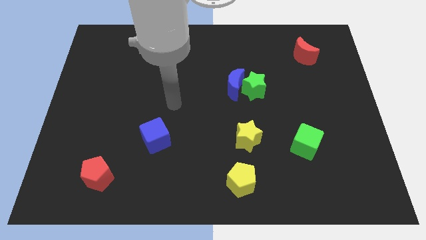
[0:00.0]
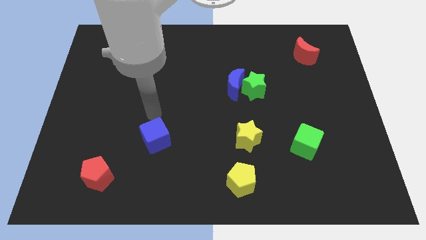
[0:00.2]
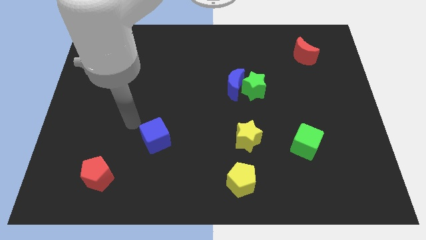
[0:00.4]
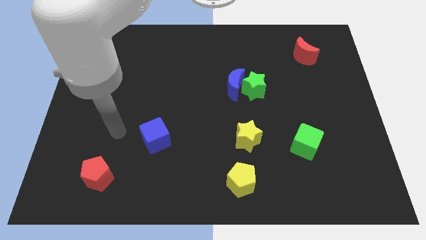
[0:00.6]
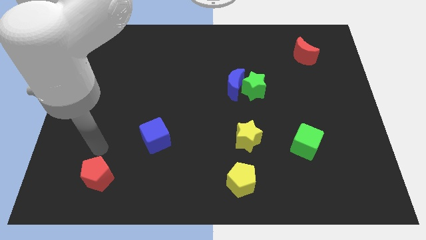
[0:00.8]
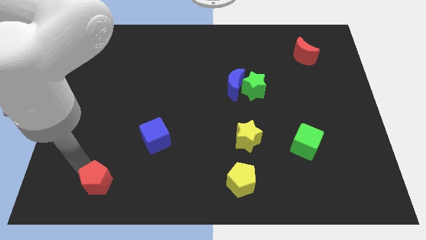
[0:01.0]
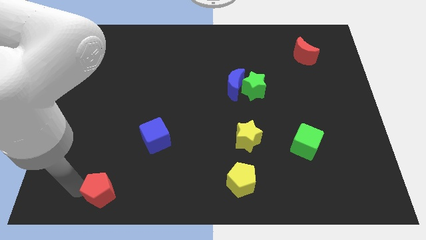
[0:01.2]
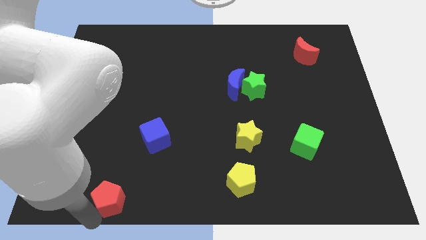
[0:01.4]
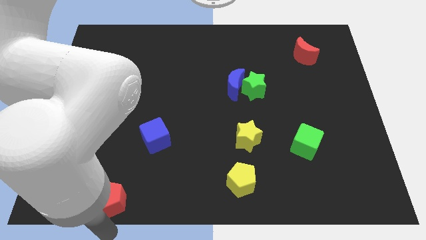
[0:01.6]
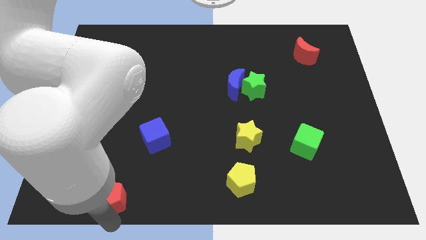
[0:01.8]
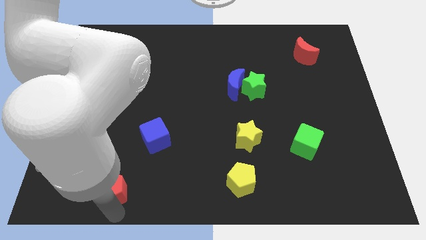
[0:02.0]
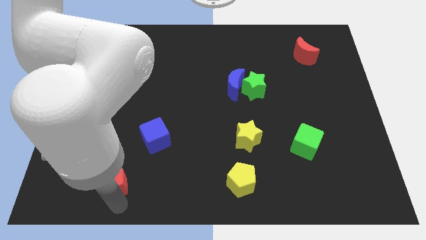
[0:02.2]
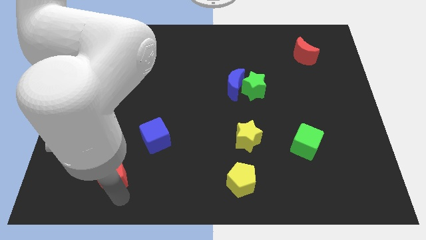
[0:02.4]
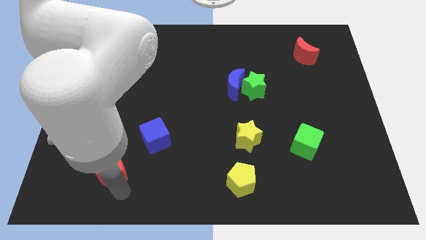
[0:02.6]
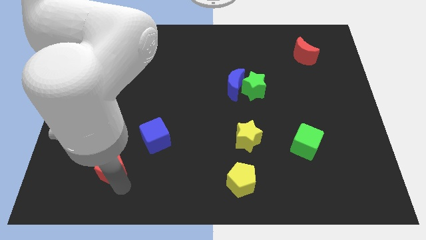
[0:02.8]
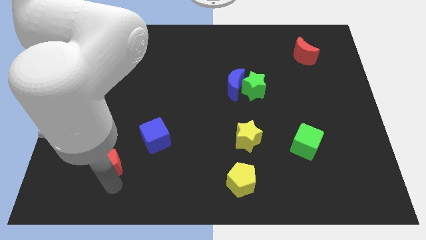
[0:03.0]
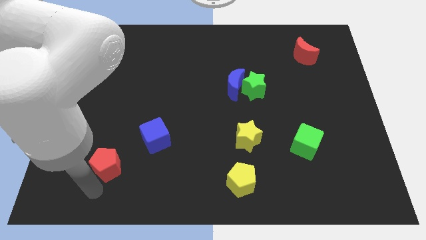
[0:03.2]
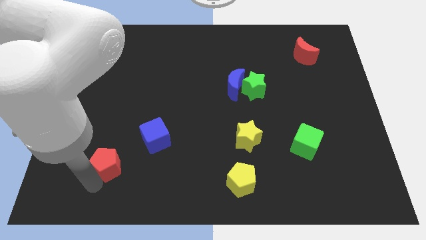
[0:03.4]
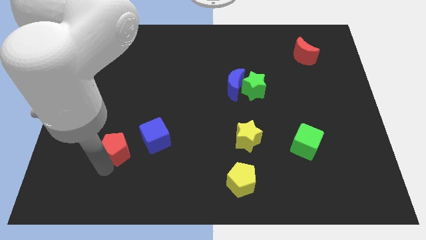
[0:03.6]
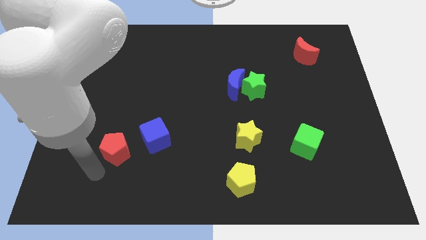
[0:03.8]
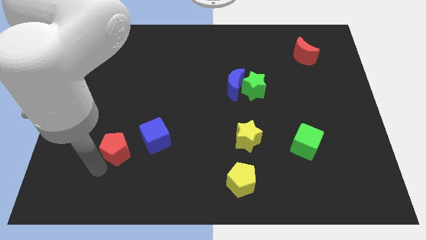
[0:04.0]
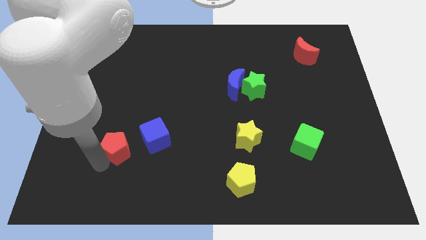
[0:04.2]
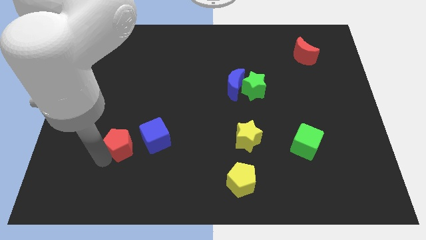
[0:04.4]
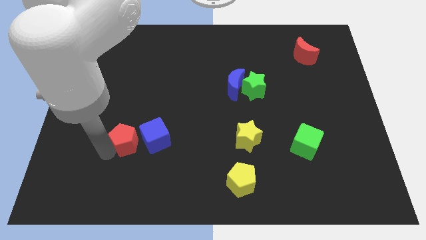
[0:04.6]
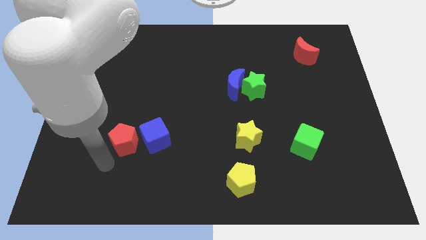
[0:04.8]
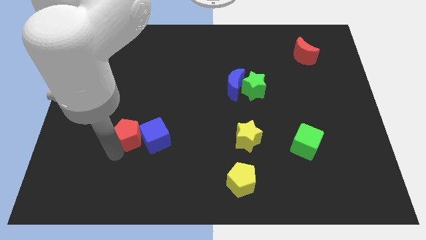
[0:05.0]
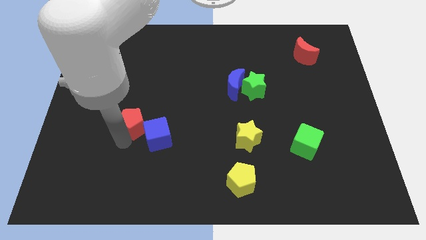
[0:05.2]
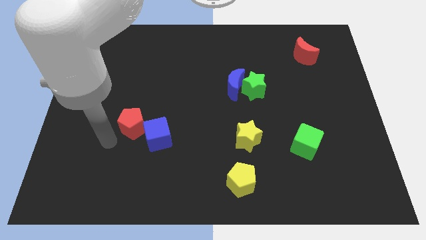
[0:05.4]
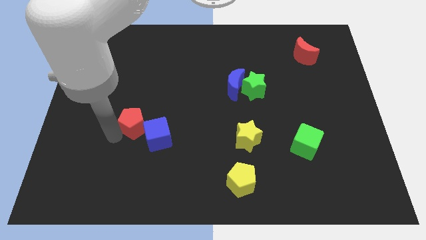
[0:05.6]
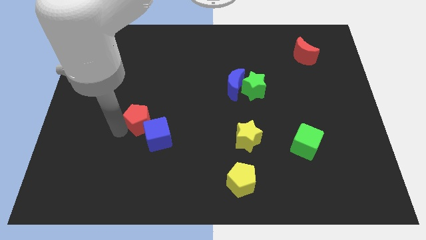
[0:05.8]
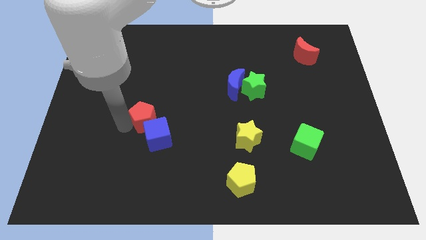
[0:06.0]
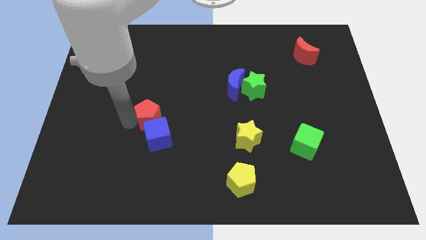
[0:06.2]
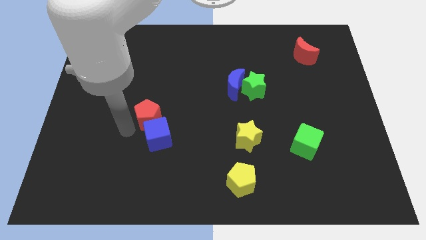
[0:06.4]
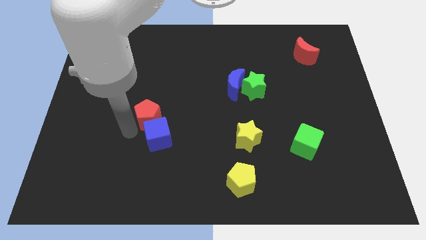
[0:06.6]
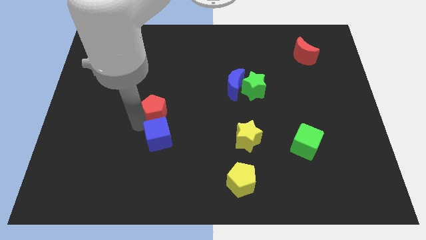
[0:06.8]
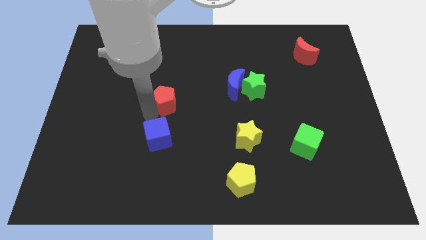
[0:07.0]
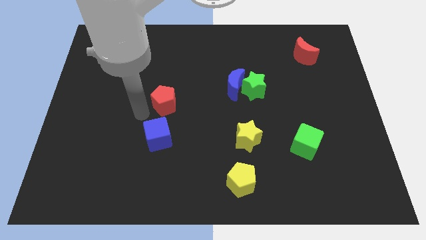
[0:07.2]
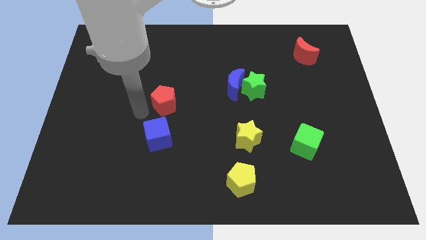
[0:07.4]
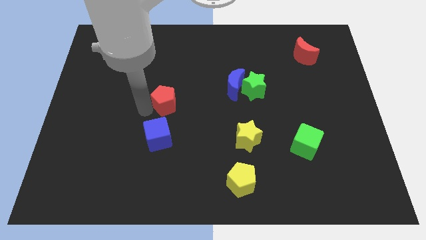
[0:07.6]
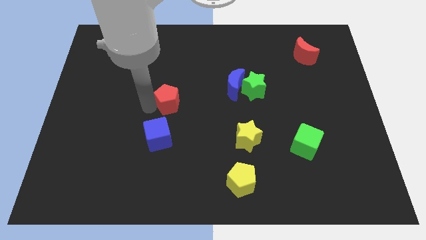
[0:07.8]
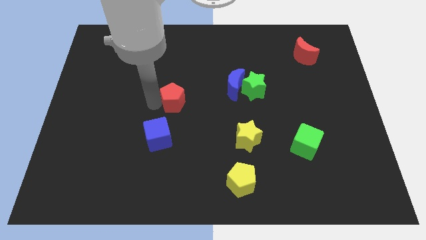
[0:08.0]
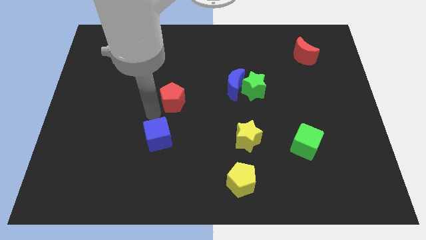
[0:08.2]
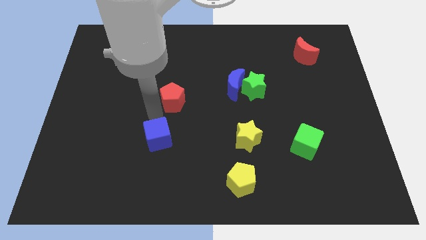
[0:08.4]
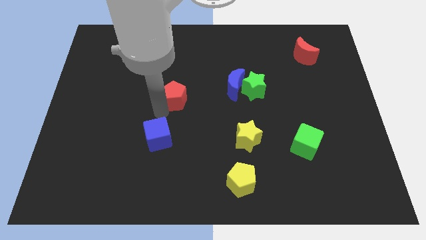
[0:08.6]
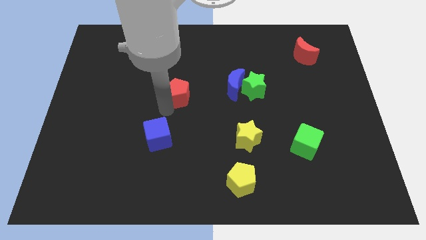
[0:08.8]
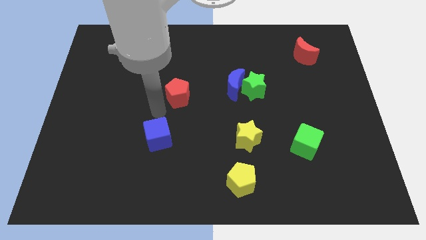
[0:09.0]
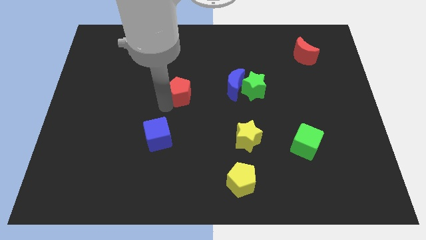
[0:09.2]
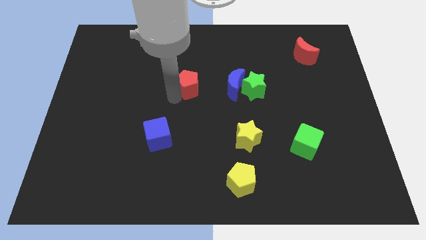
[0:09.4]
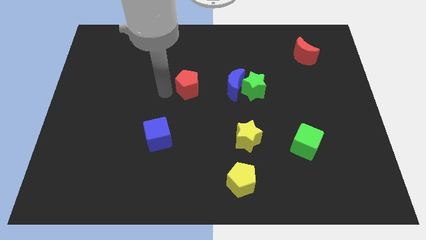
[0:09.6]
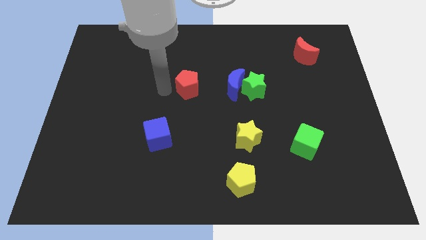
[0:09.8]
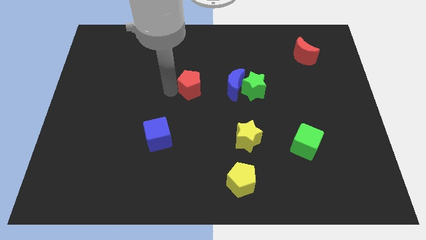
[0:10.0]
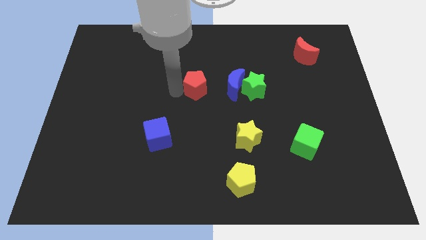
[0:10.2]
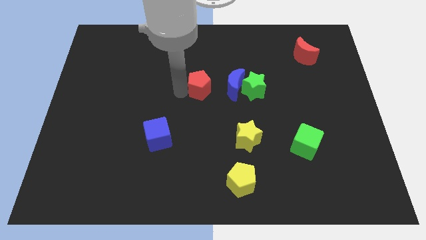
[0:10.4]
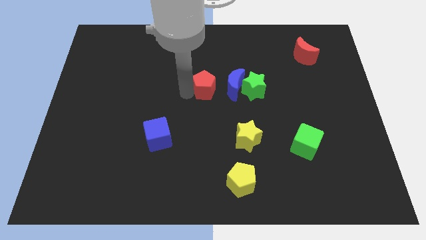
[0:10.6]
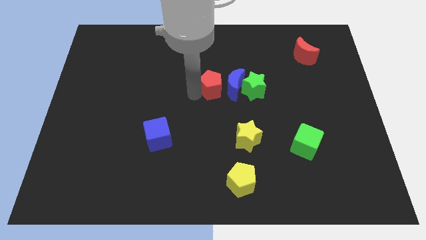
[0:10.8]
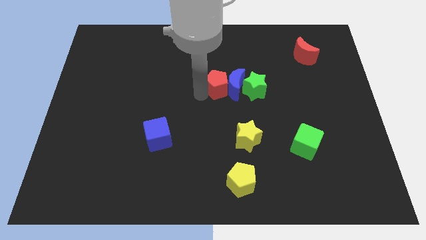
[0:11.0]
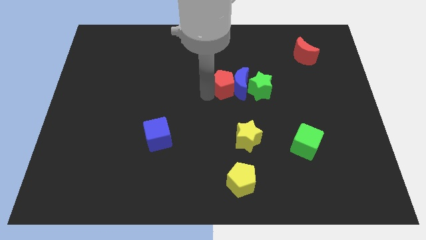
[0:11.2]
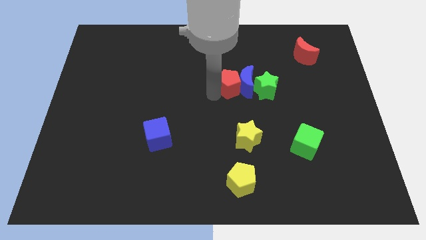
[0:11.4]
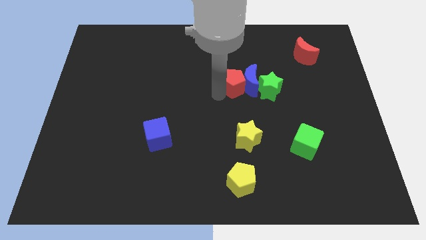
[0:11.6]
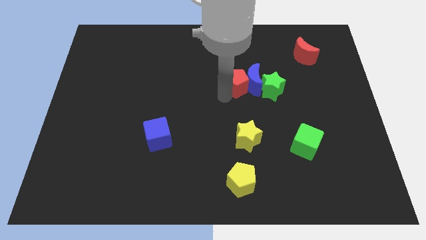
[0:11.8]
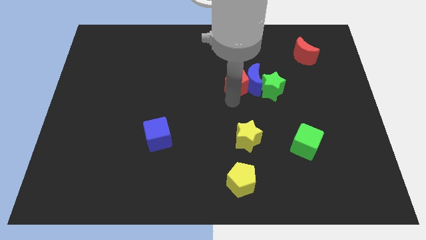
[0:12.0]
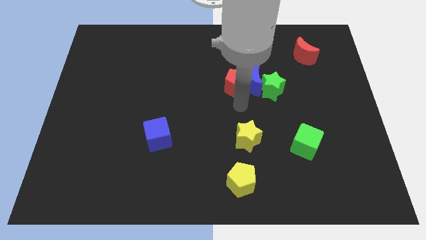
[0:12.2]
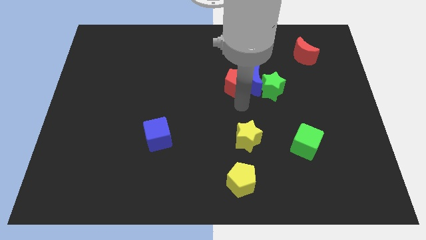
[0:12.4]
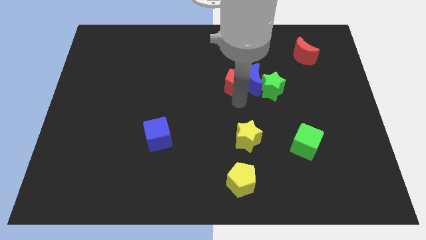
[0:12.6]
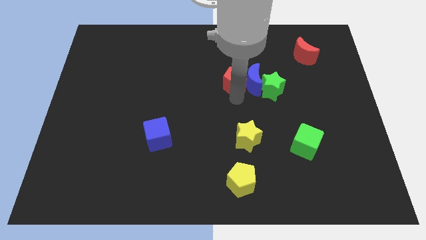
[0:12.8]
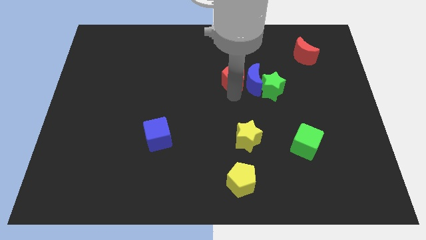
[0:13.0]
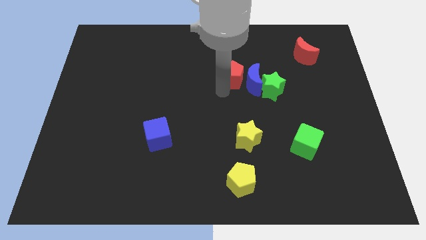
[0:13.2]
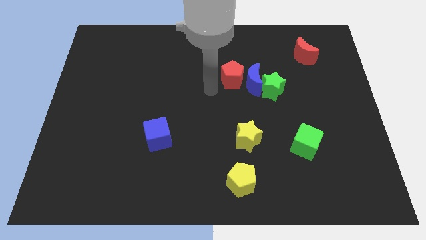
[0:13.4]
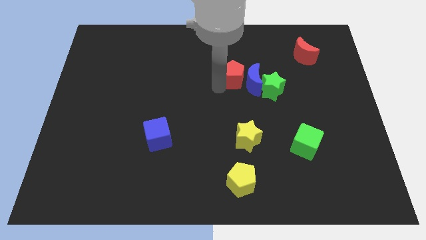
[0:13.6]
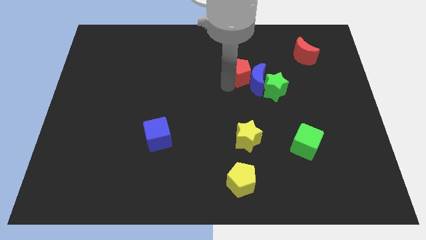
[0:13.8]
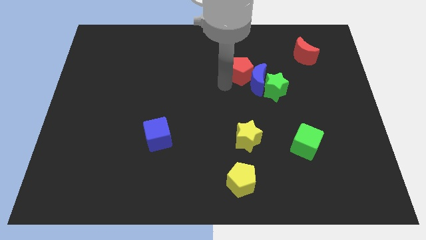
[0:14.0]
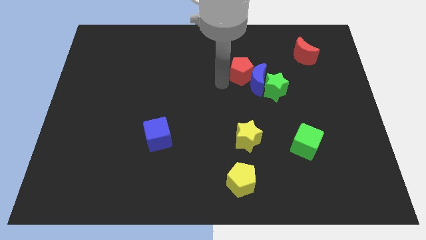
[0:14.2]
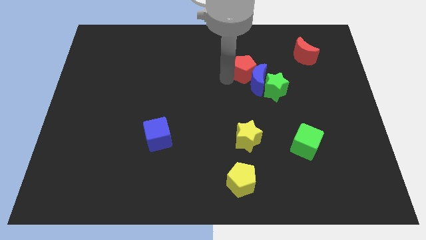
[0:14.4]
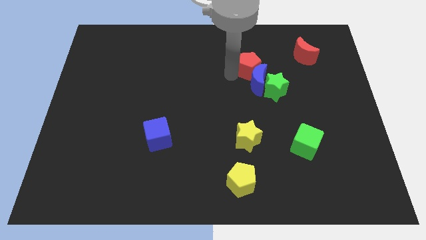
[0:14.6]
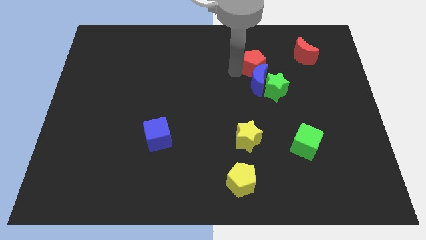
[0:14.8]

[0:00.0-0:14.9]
put the red pentagon to the top side of the green star
